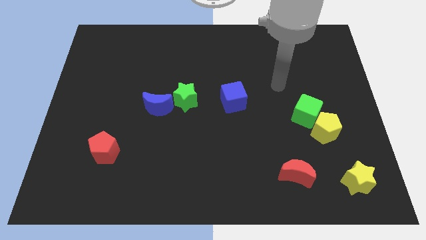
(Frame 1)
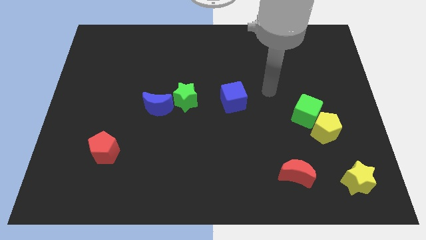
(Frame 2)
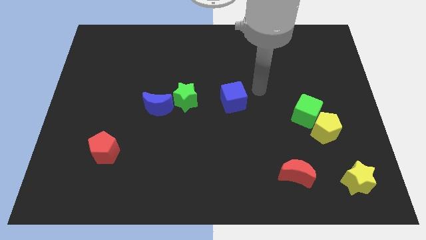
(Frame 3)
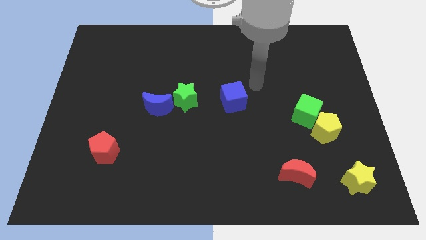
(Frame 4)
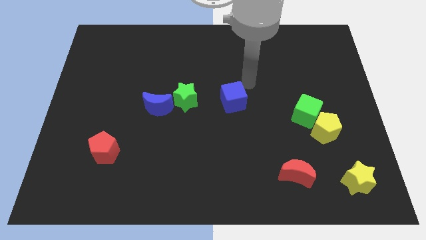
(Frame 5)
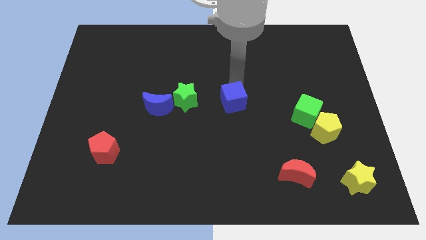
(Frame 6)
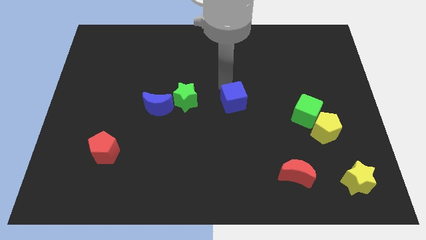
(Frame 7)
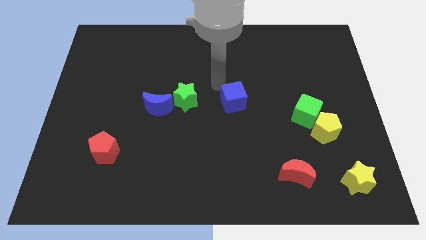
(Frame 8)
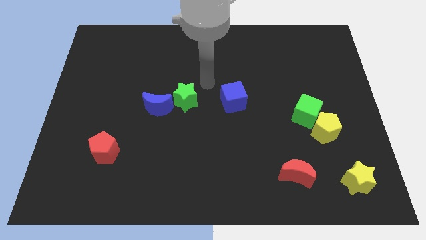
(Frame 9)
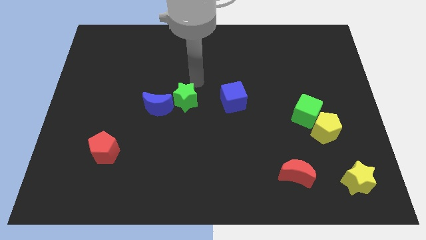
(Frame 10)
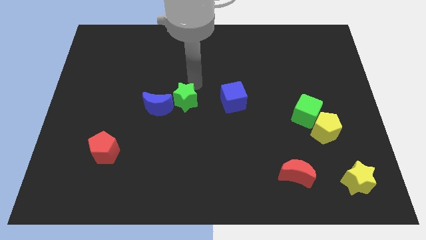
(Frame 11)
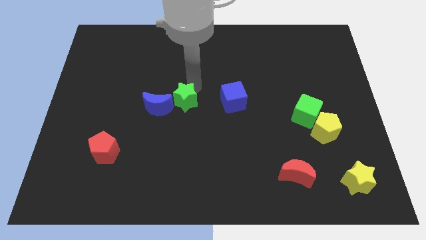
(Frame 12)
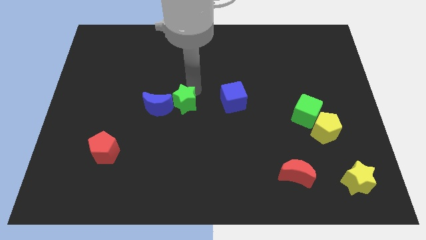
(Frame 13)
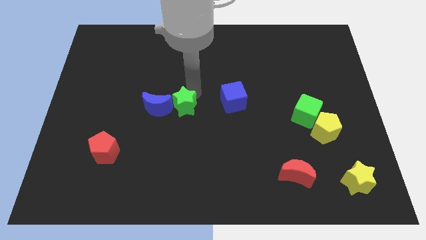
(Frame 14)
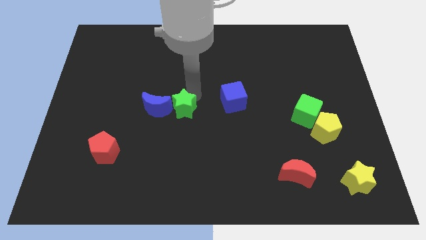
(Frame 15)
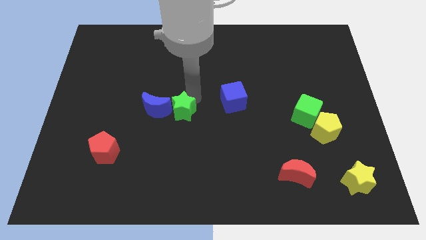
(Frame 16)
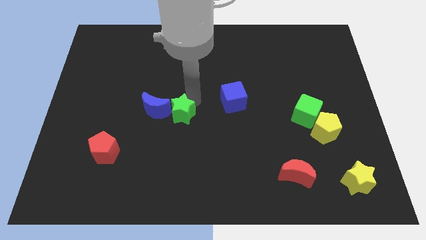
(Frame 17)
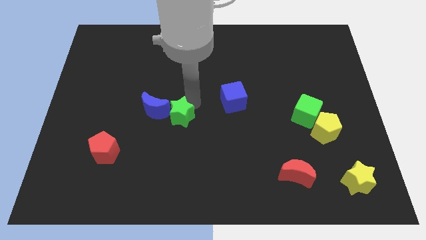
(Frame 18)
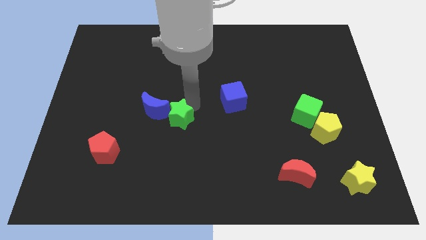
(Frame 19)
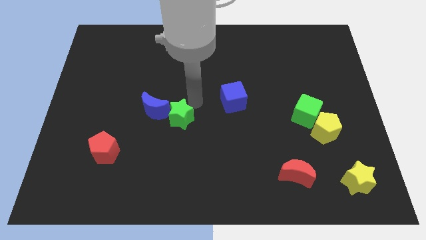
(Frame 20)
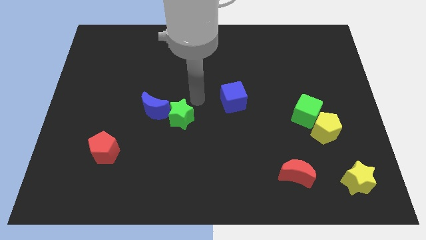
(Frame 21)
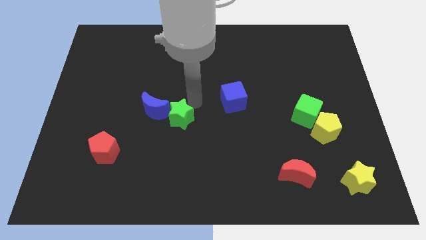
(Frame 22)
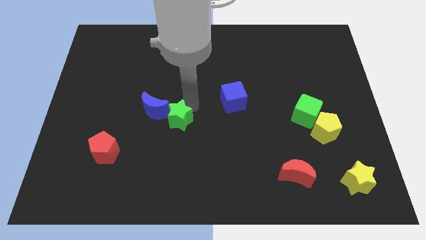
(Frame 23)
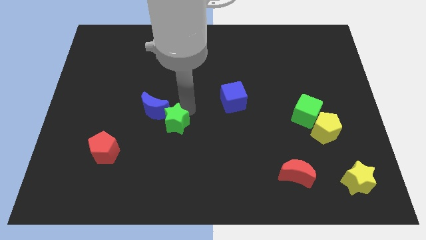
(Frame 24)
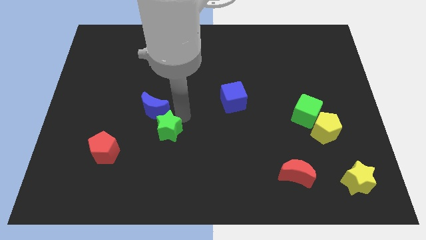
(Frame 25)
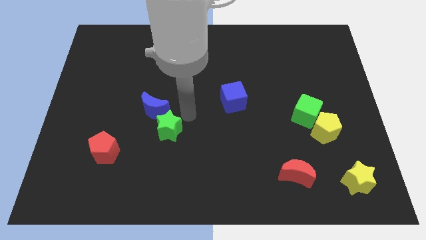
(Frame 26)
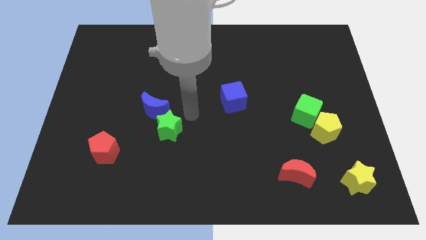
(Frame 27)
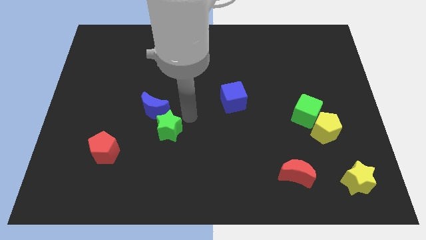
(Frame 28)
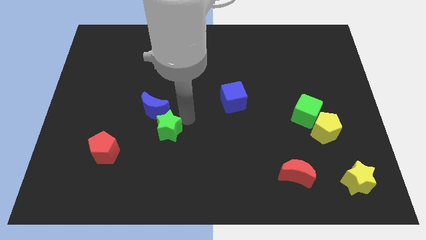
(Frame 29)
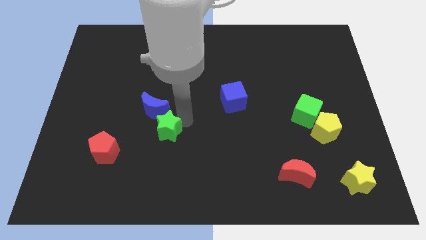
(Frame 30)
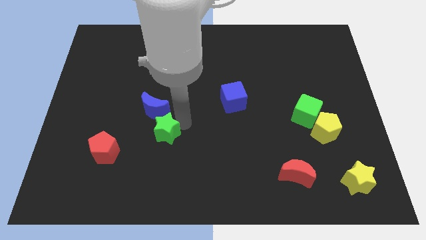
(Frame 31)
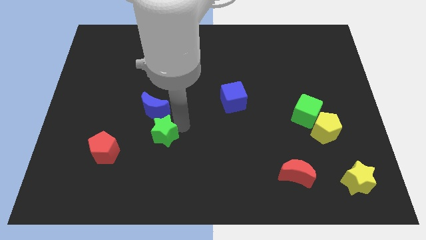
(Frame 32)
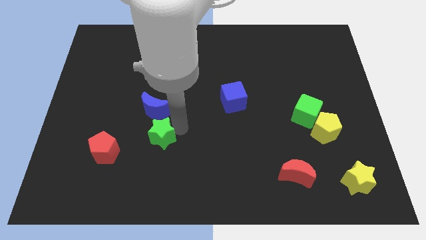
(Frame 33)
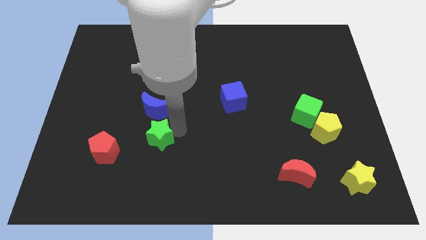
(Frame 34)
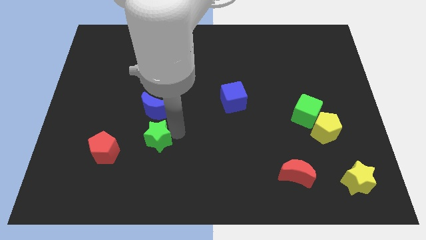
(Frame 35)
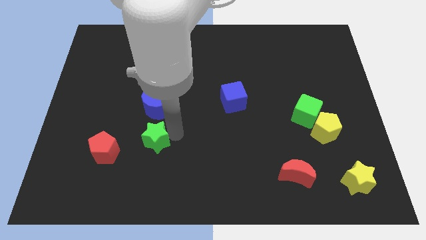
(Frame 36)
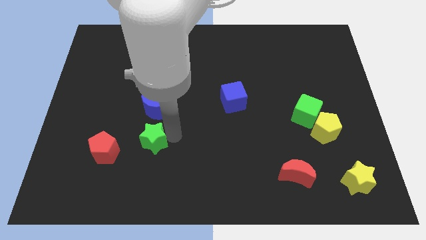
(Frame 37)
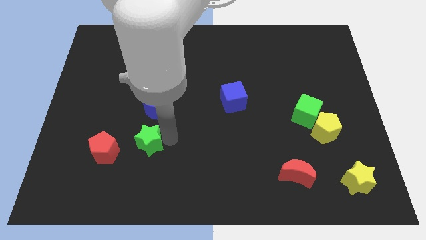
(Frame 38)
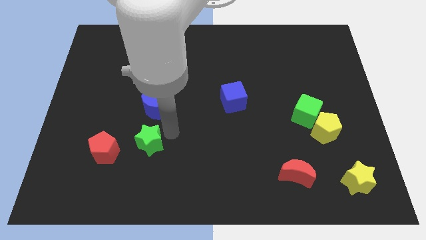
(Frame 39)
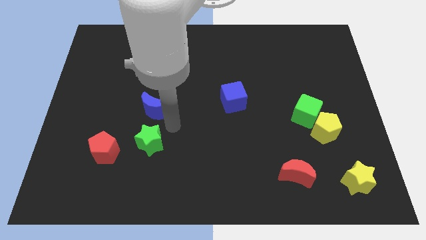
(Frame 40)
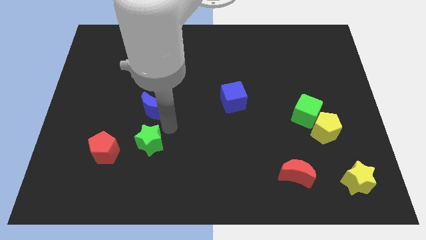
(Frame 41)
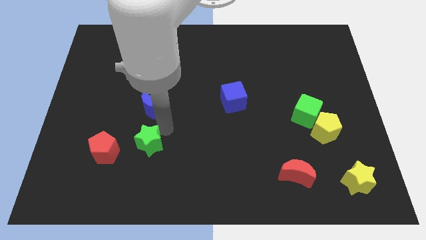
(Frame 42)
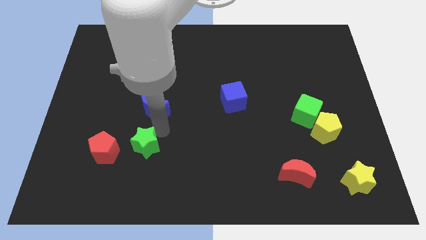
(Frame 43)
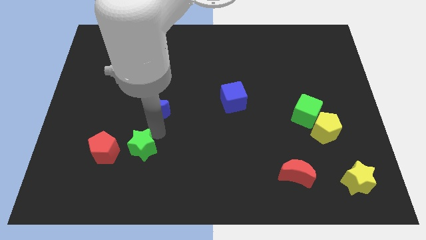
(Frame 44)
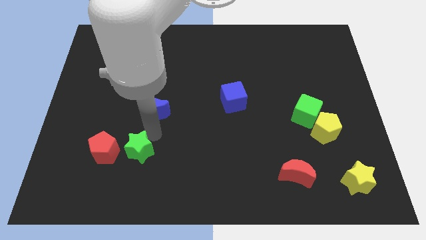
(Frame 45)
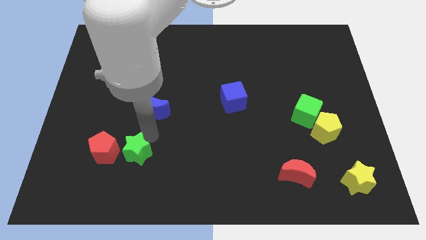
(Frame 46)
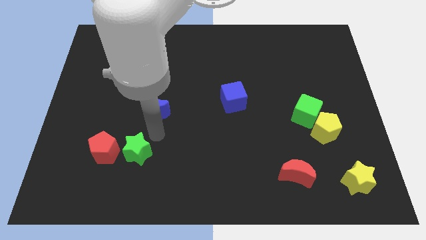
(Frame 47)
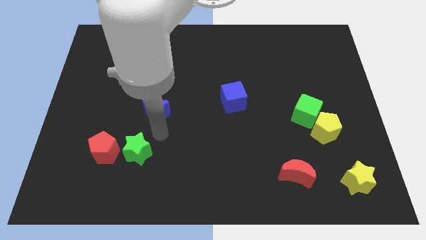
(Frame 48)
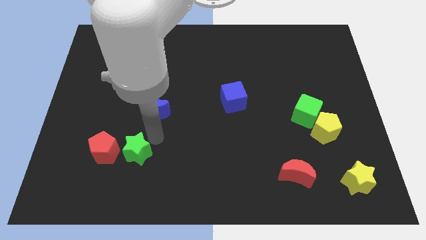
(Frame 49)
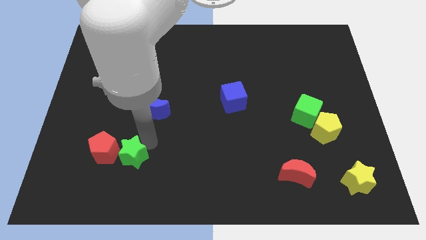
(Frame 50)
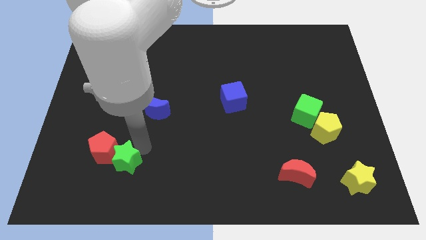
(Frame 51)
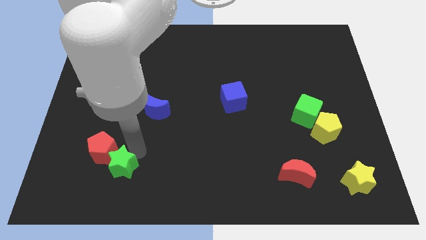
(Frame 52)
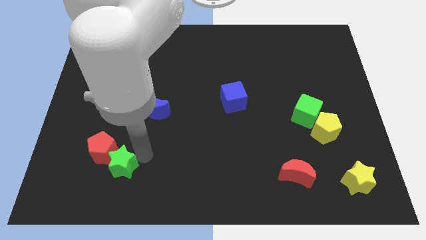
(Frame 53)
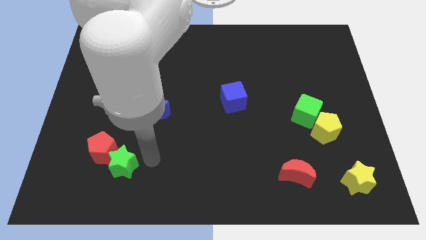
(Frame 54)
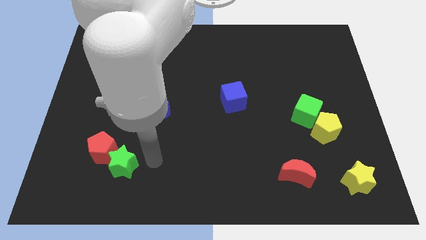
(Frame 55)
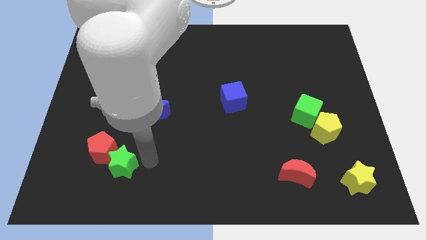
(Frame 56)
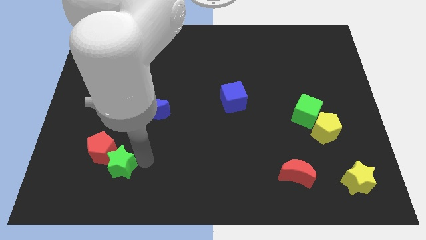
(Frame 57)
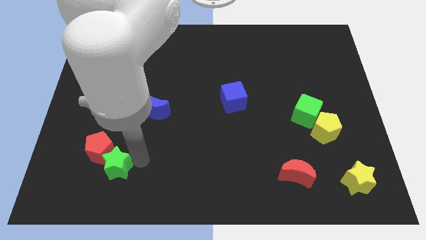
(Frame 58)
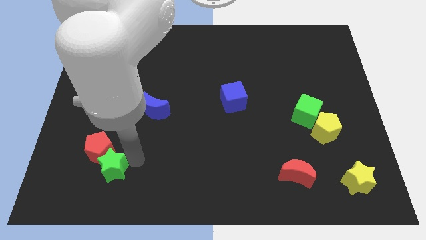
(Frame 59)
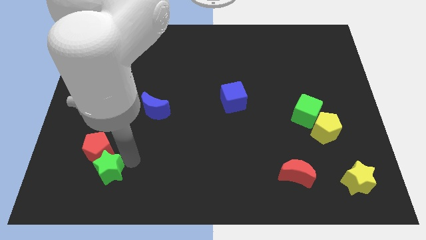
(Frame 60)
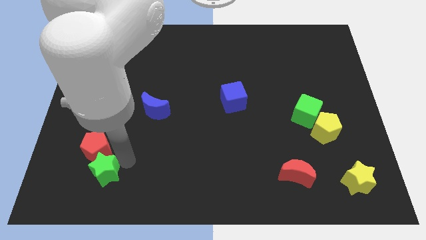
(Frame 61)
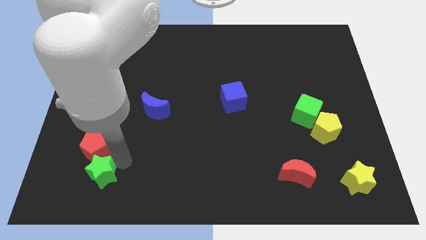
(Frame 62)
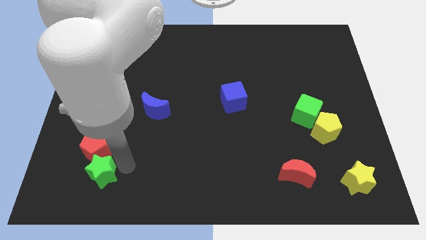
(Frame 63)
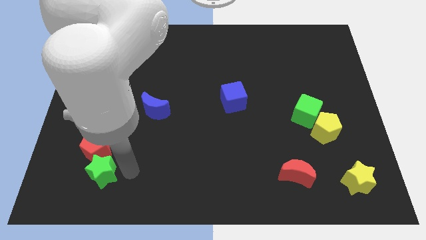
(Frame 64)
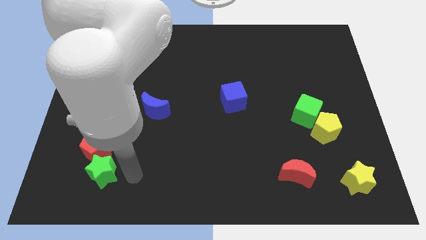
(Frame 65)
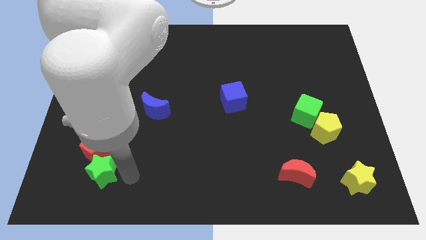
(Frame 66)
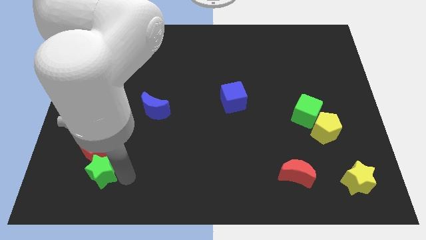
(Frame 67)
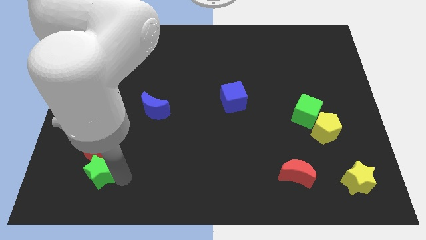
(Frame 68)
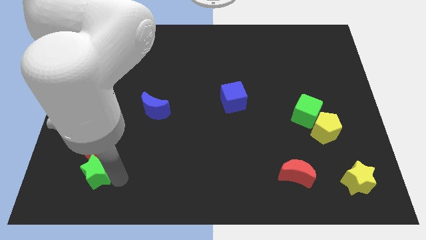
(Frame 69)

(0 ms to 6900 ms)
push the green star to the bottom left side of the red pentagon
